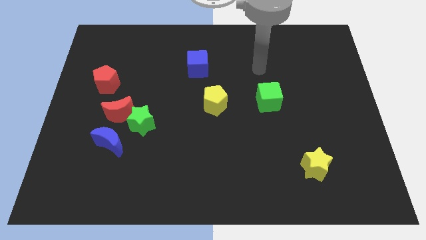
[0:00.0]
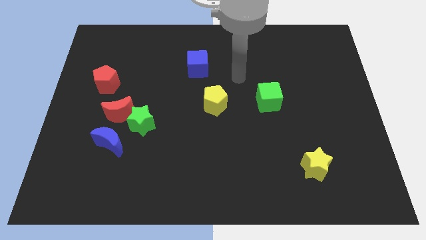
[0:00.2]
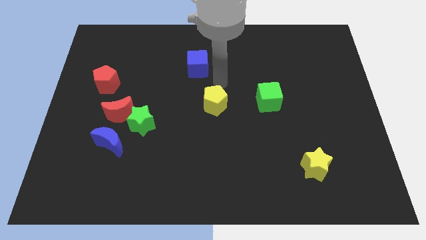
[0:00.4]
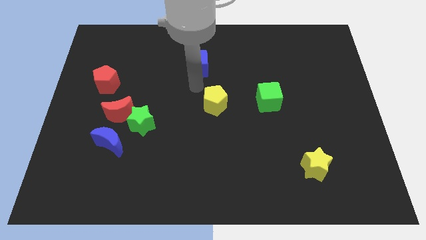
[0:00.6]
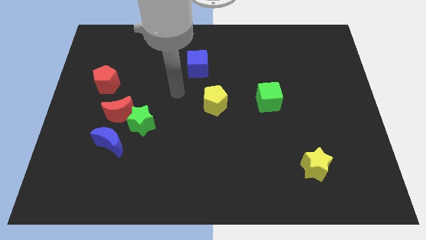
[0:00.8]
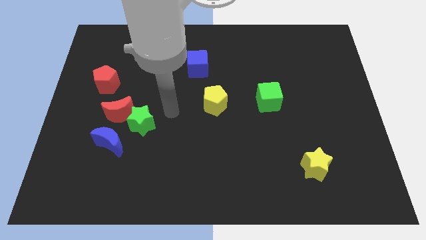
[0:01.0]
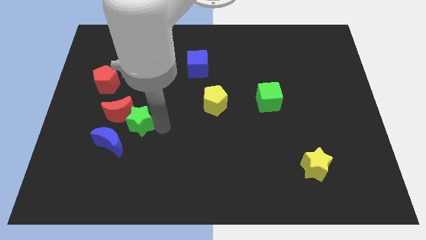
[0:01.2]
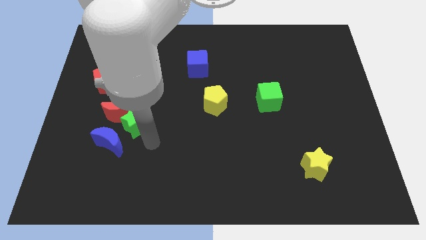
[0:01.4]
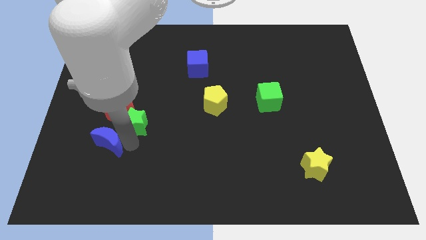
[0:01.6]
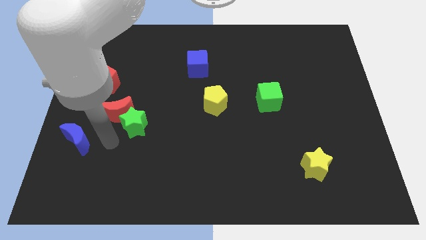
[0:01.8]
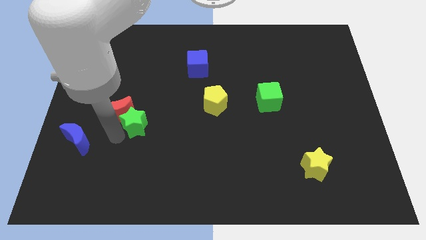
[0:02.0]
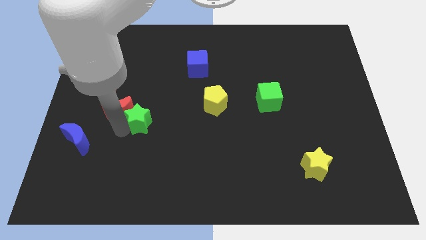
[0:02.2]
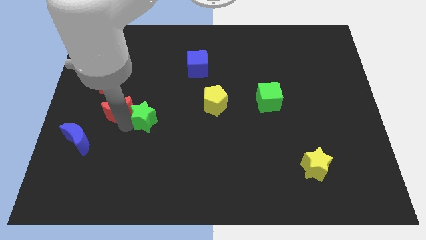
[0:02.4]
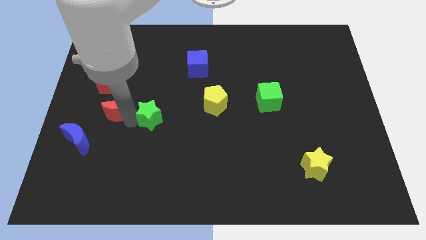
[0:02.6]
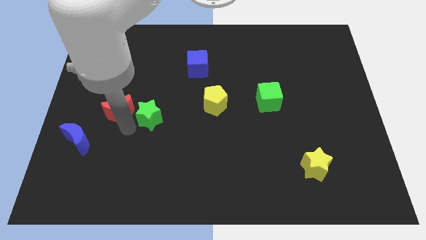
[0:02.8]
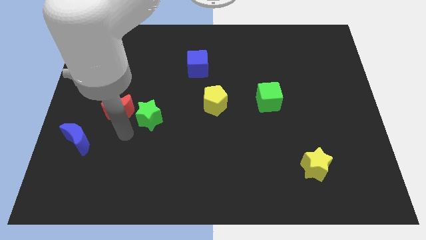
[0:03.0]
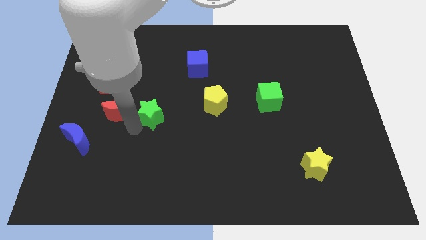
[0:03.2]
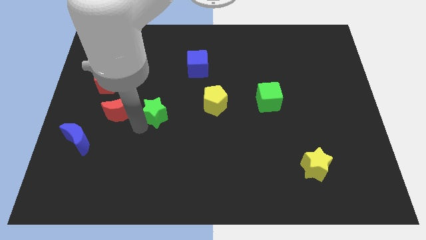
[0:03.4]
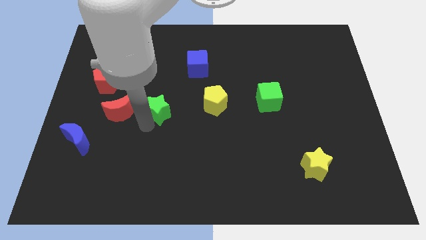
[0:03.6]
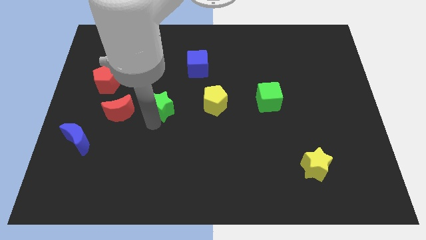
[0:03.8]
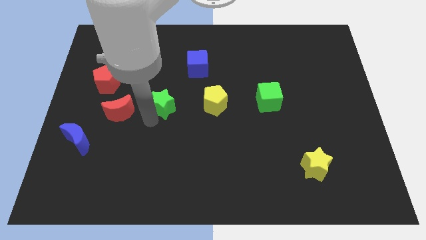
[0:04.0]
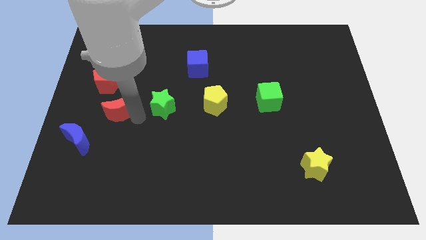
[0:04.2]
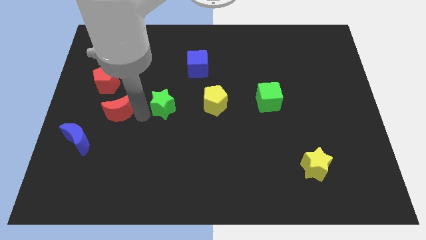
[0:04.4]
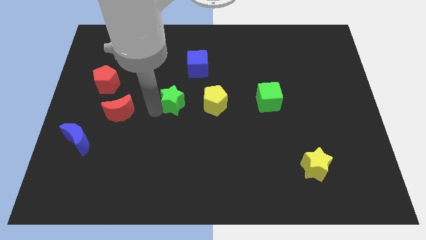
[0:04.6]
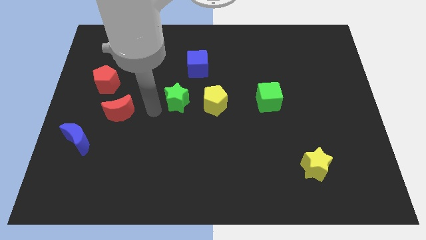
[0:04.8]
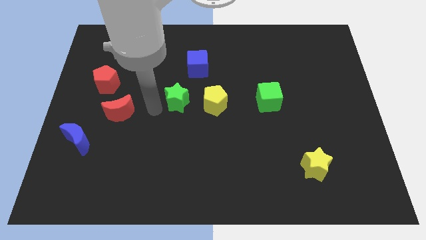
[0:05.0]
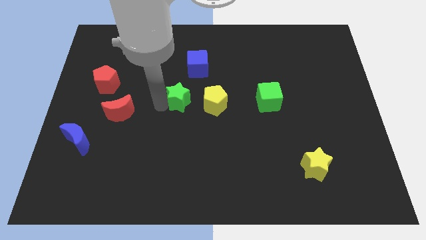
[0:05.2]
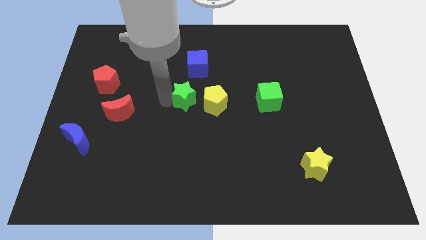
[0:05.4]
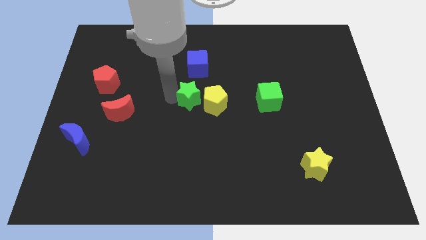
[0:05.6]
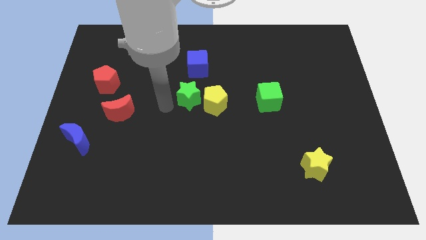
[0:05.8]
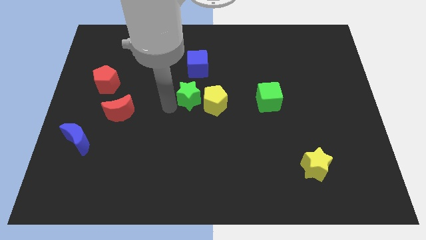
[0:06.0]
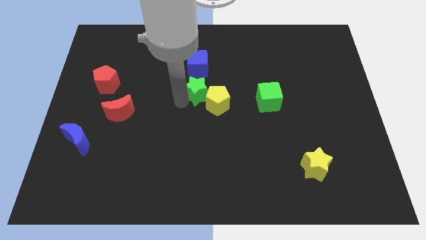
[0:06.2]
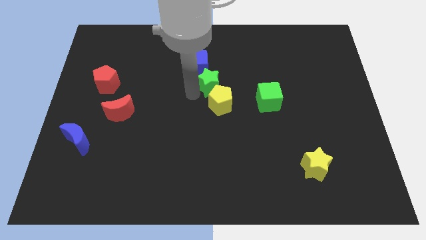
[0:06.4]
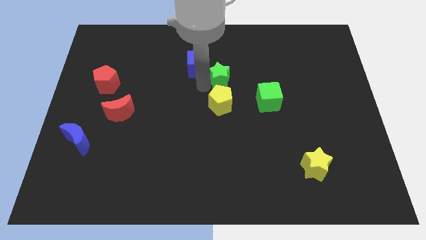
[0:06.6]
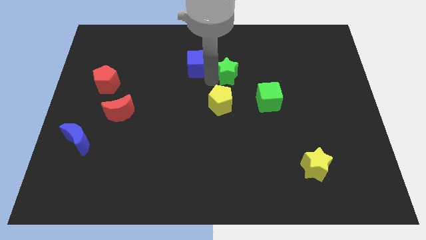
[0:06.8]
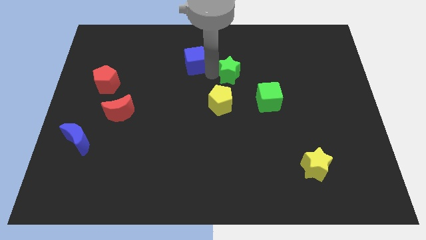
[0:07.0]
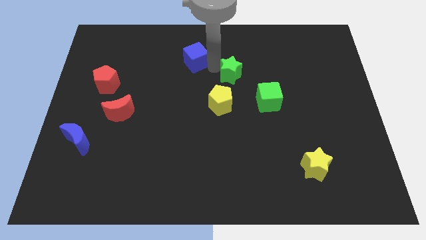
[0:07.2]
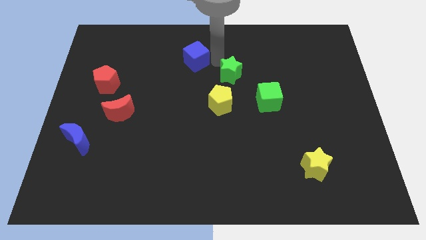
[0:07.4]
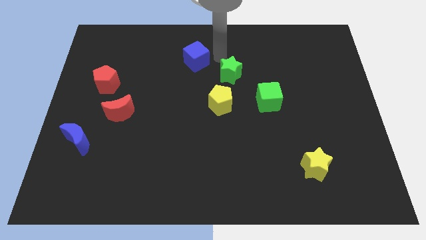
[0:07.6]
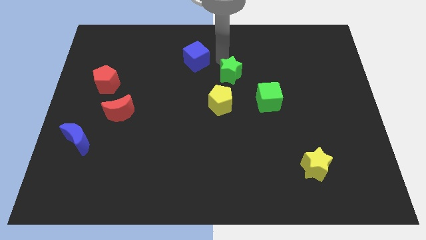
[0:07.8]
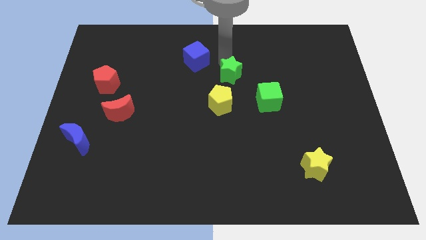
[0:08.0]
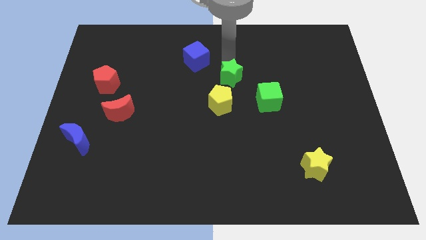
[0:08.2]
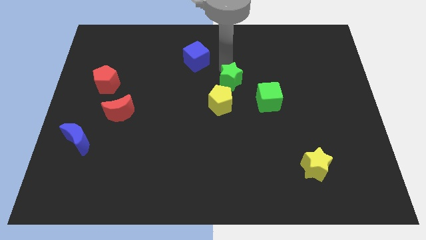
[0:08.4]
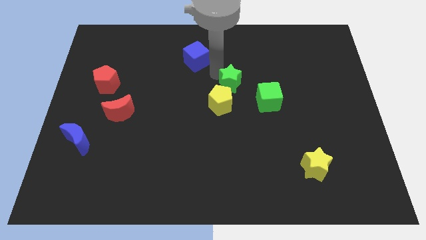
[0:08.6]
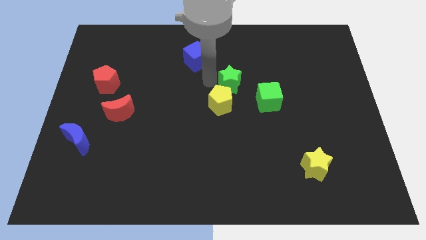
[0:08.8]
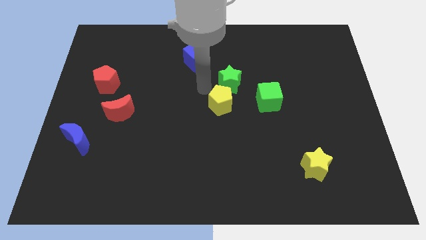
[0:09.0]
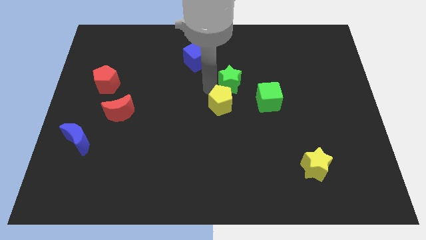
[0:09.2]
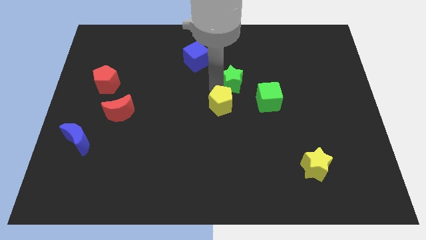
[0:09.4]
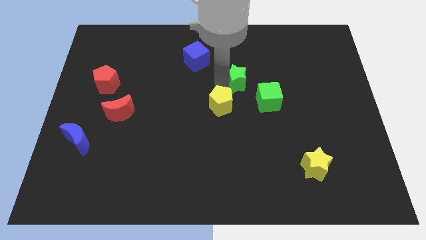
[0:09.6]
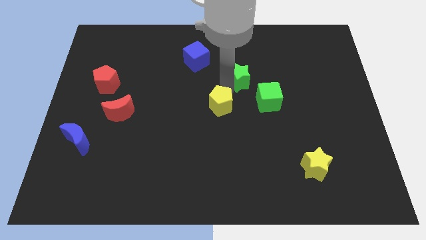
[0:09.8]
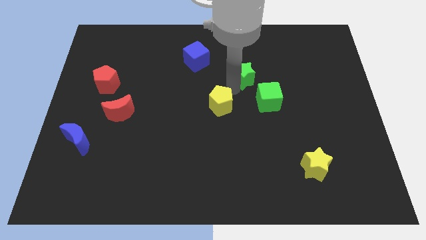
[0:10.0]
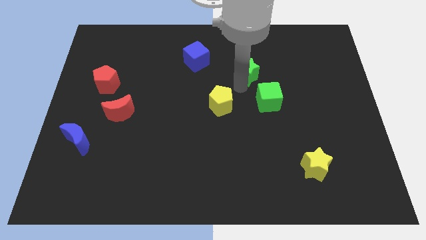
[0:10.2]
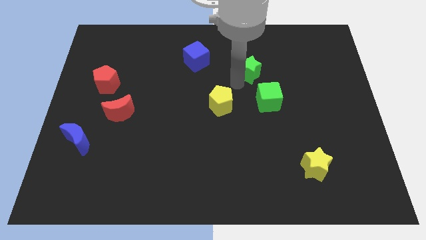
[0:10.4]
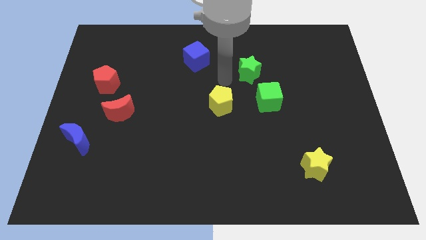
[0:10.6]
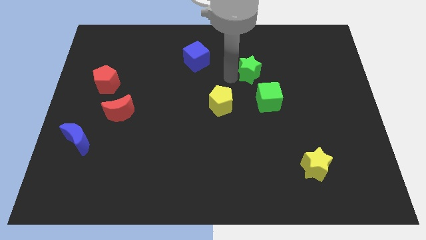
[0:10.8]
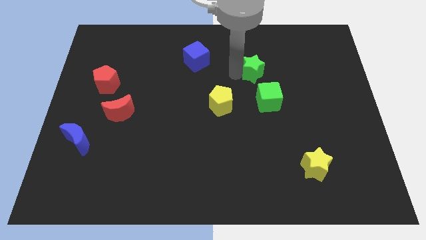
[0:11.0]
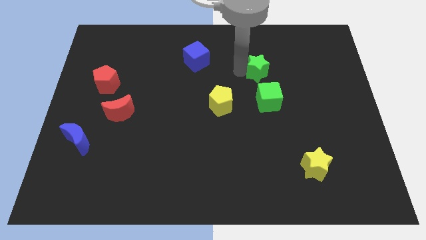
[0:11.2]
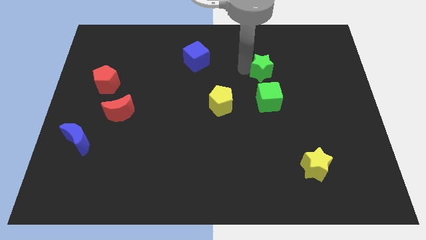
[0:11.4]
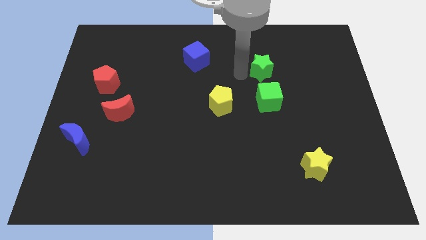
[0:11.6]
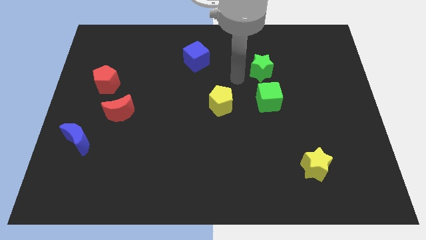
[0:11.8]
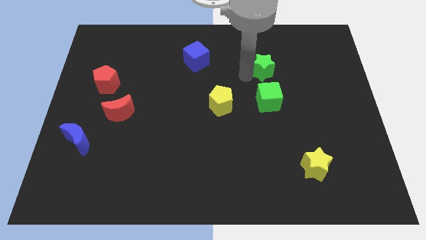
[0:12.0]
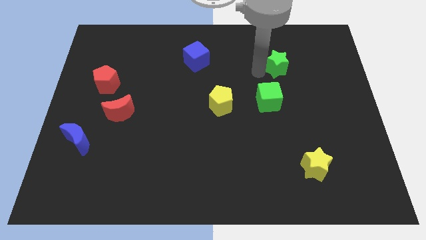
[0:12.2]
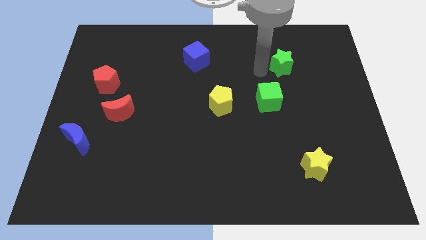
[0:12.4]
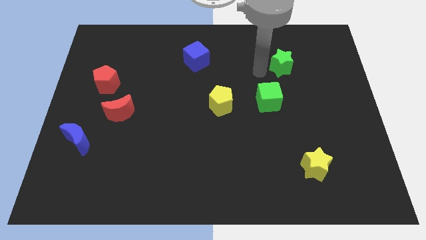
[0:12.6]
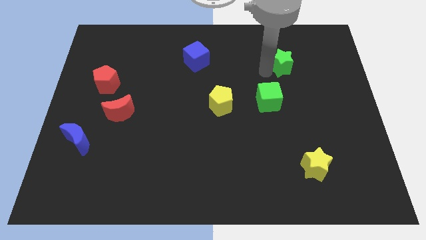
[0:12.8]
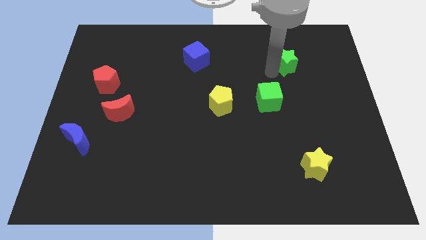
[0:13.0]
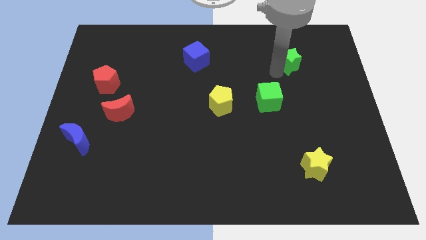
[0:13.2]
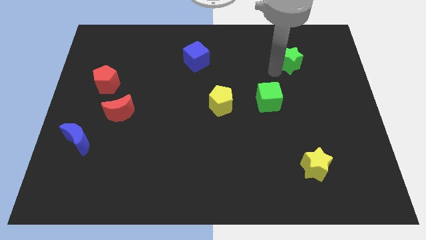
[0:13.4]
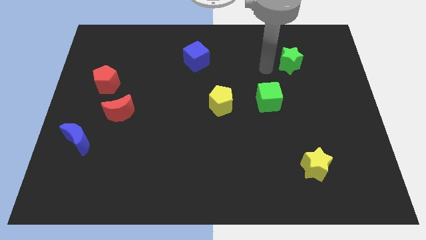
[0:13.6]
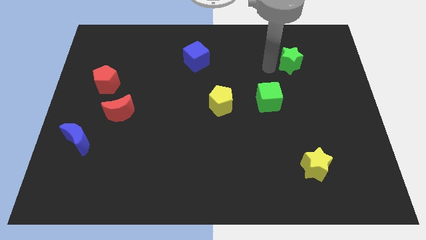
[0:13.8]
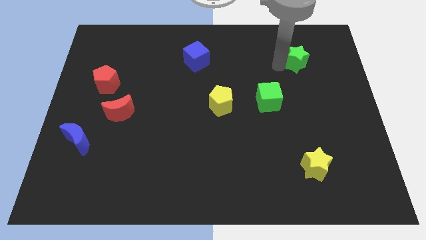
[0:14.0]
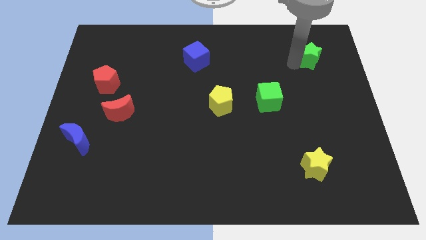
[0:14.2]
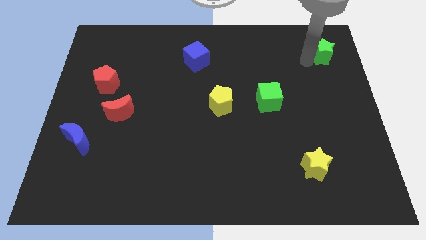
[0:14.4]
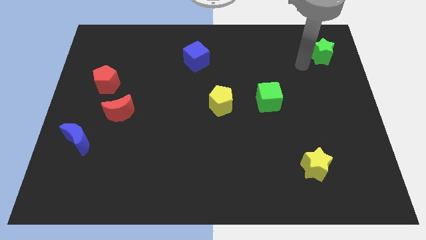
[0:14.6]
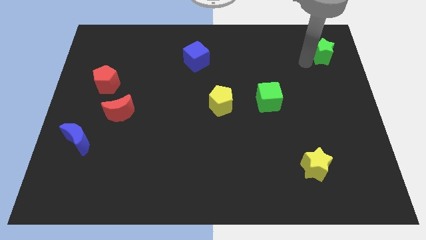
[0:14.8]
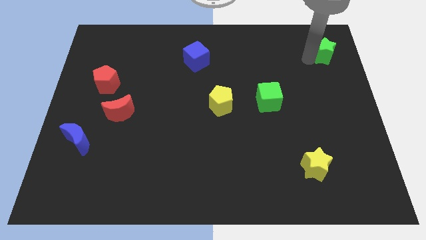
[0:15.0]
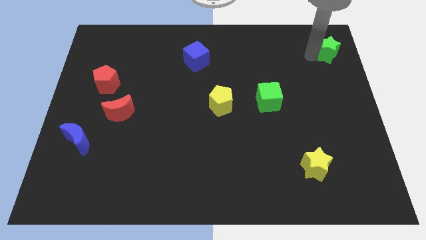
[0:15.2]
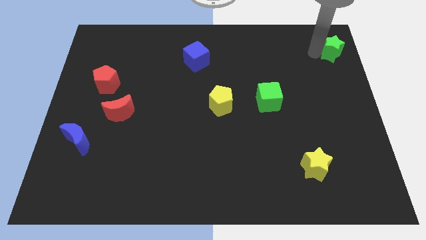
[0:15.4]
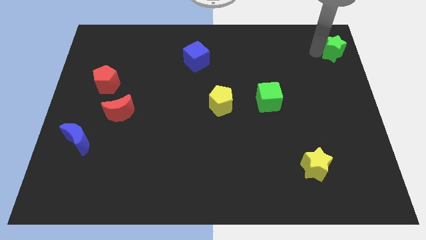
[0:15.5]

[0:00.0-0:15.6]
push the green star to the upper right corner
